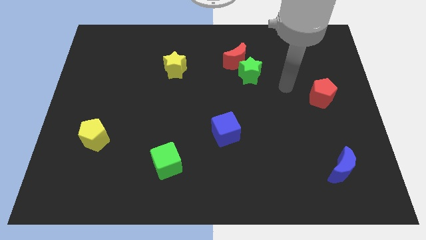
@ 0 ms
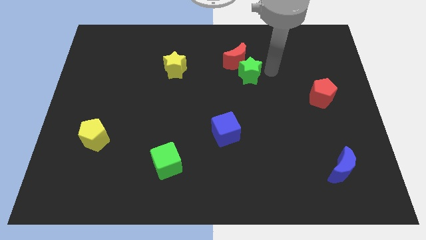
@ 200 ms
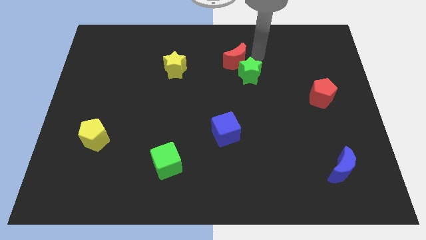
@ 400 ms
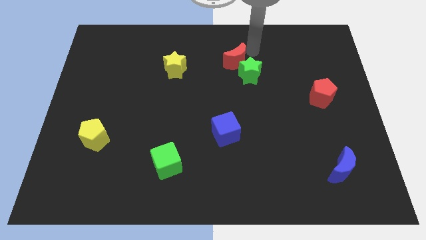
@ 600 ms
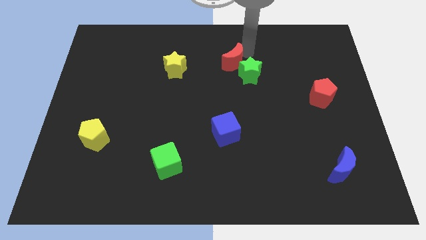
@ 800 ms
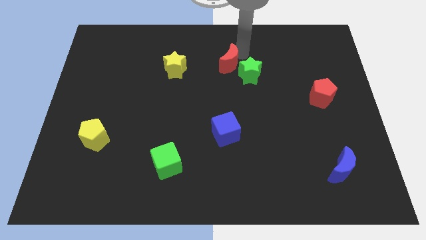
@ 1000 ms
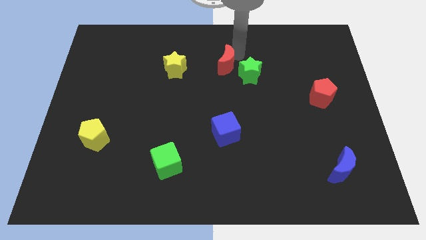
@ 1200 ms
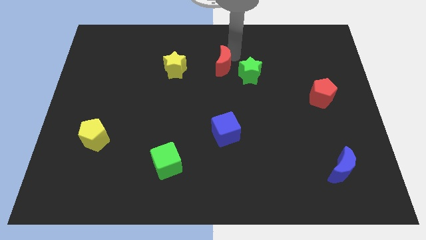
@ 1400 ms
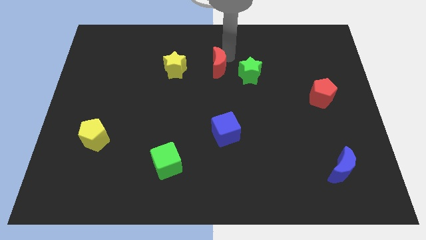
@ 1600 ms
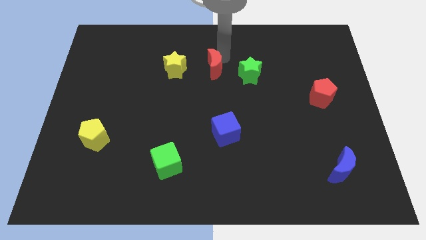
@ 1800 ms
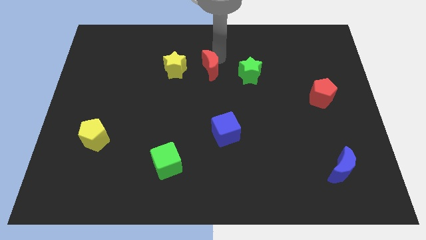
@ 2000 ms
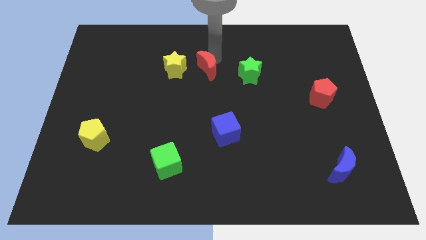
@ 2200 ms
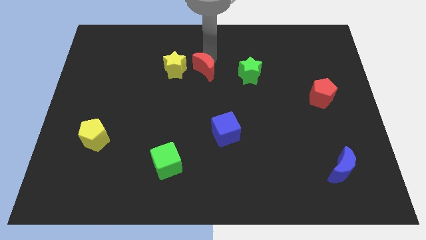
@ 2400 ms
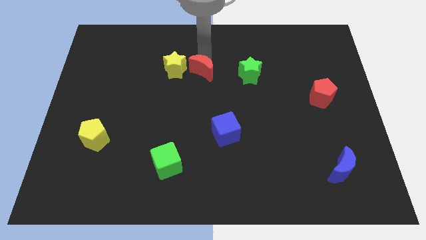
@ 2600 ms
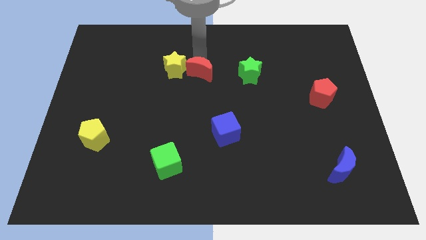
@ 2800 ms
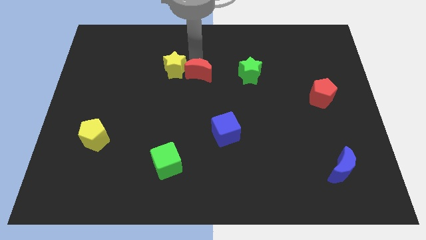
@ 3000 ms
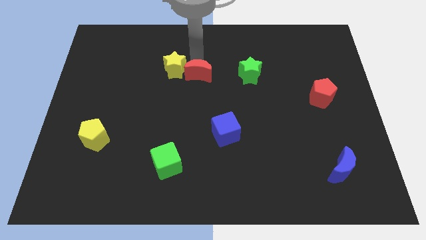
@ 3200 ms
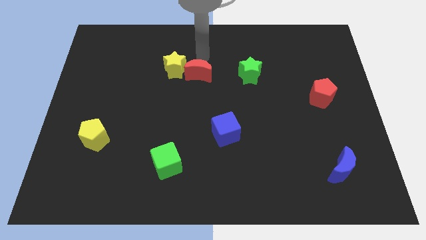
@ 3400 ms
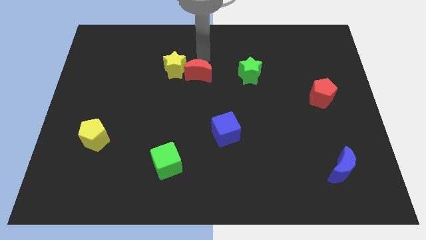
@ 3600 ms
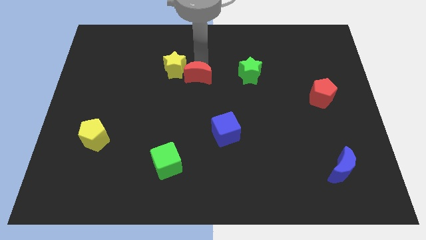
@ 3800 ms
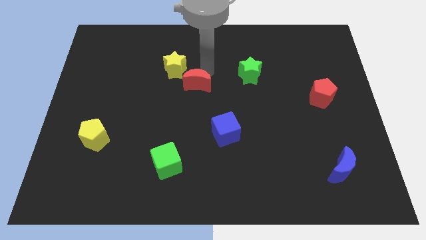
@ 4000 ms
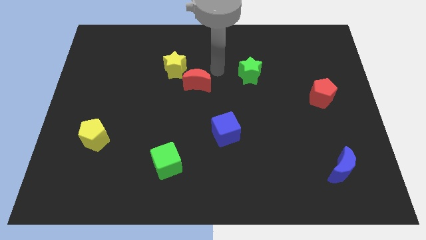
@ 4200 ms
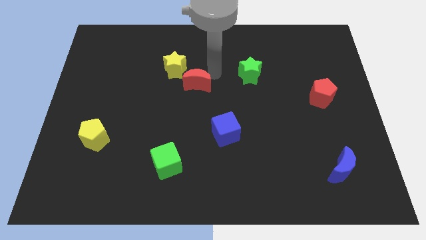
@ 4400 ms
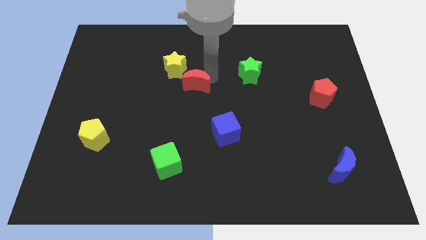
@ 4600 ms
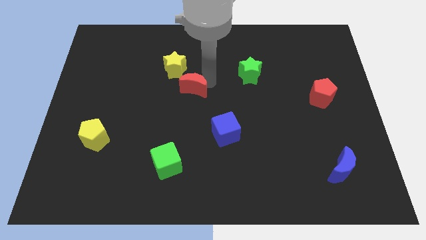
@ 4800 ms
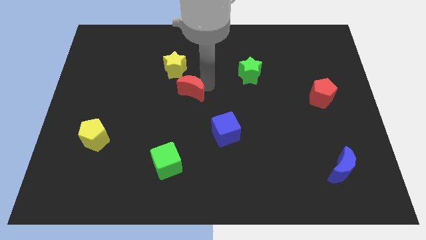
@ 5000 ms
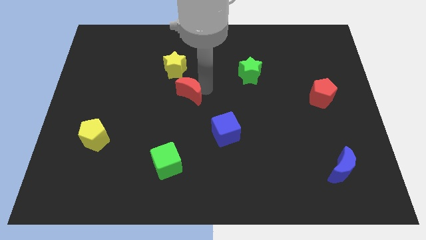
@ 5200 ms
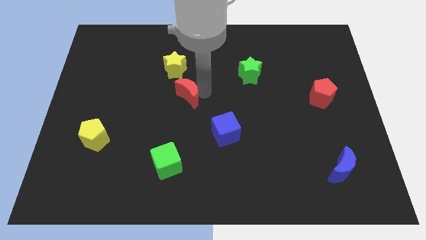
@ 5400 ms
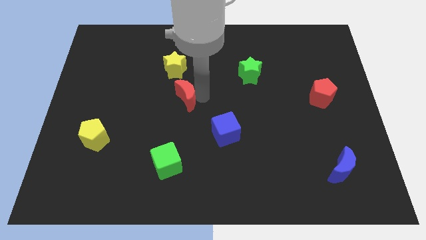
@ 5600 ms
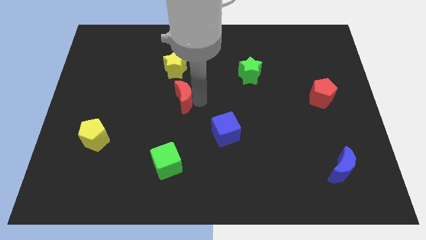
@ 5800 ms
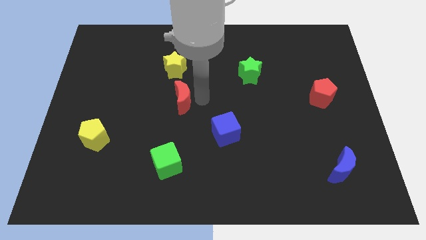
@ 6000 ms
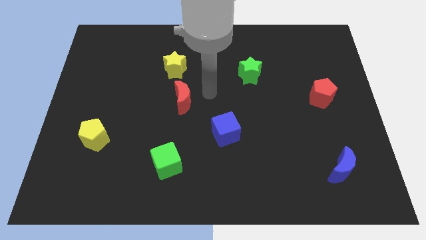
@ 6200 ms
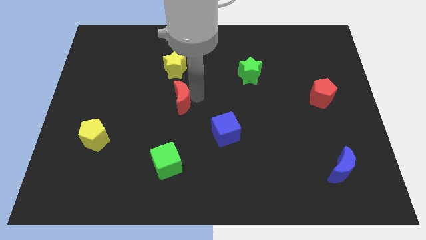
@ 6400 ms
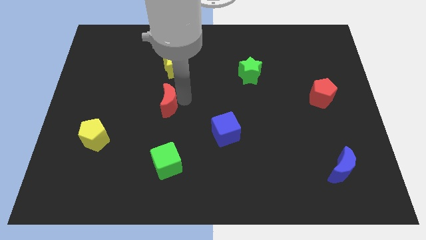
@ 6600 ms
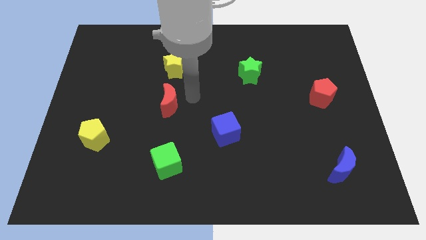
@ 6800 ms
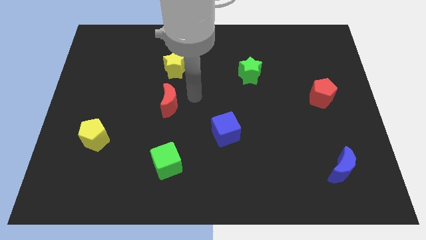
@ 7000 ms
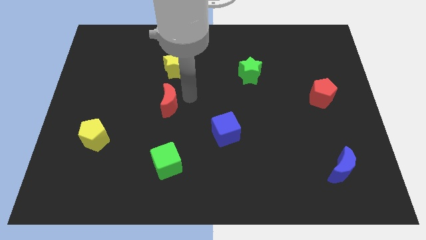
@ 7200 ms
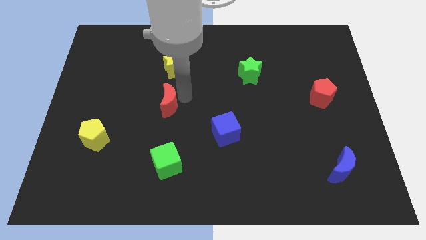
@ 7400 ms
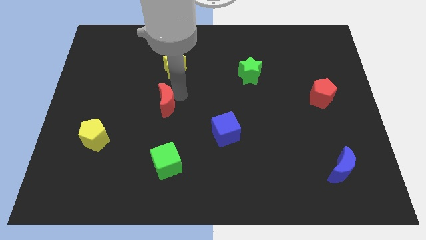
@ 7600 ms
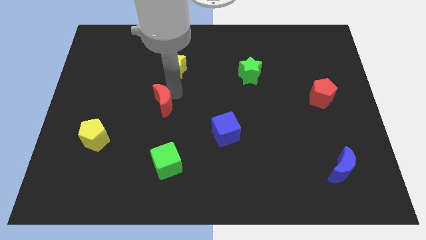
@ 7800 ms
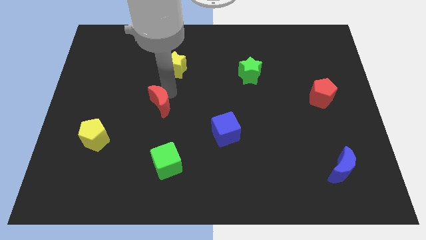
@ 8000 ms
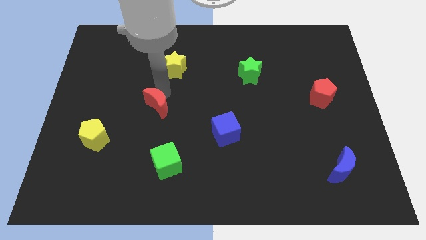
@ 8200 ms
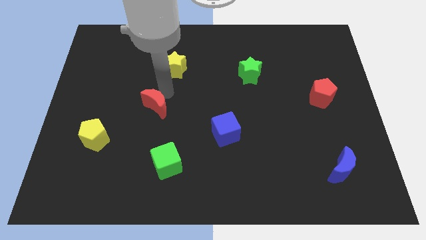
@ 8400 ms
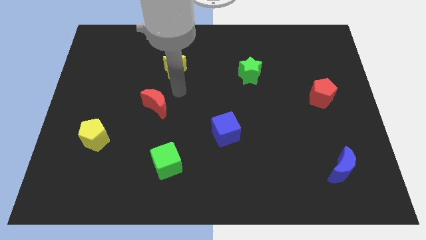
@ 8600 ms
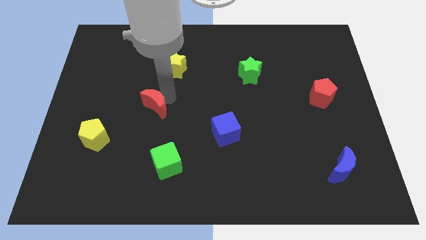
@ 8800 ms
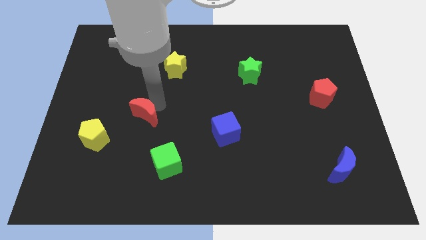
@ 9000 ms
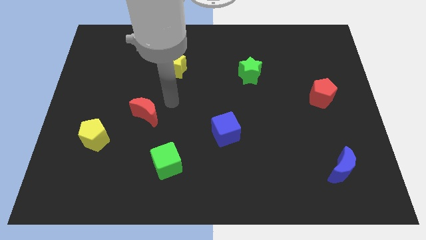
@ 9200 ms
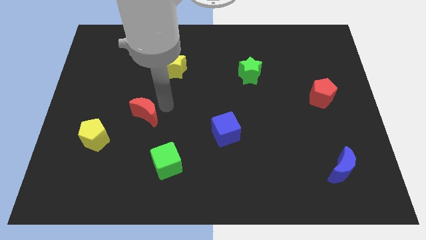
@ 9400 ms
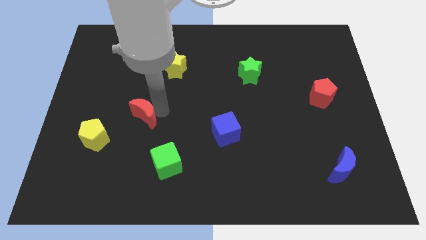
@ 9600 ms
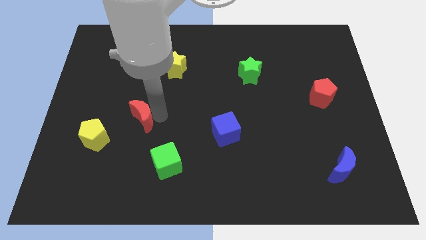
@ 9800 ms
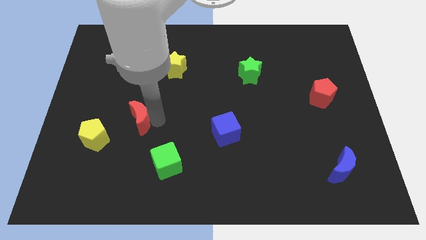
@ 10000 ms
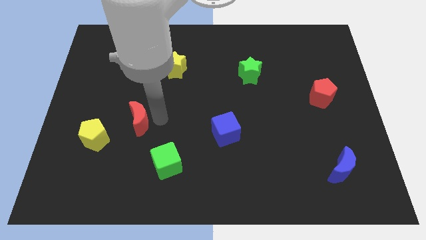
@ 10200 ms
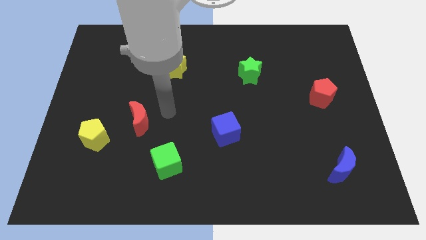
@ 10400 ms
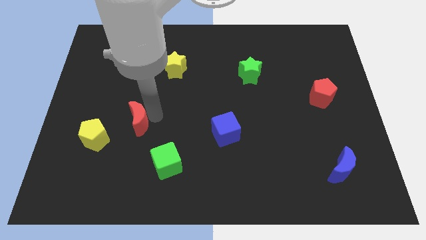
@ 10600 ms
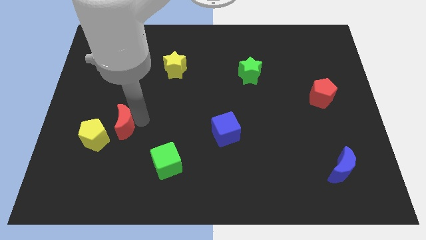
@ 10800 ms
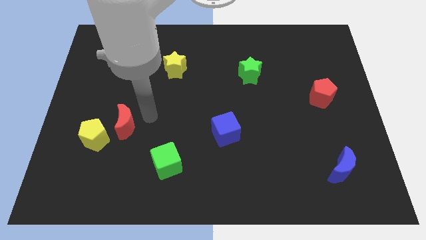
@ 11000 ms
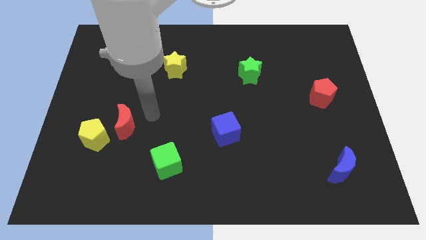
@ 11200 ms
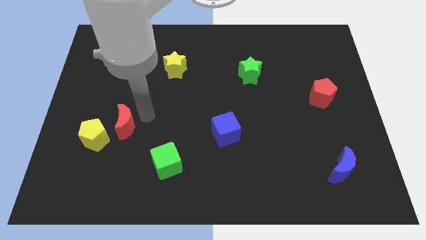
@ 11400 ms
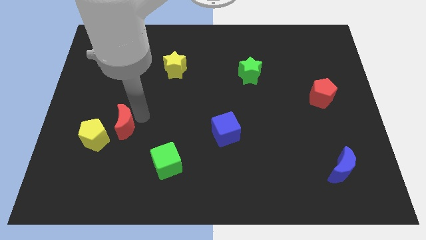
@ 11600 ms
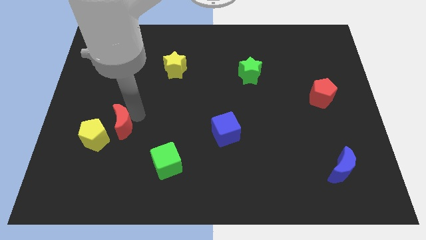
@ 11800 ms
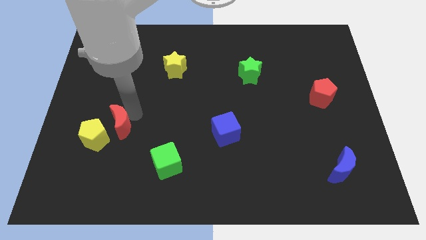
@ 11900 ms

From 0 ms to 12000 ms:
push the red moon to the yellow pentagon
